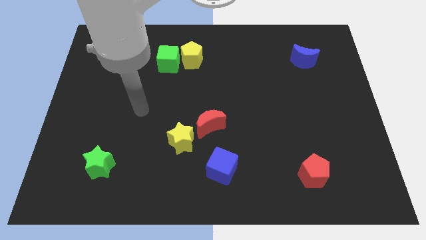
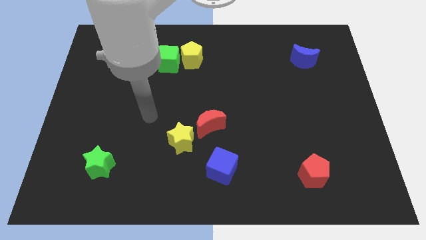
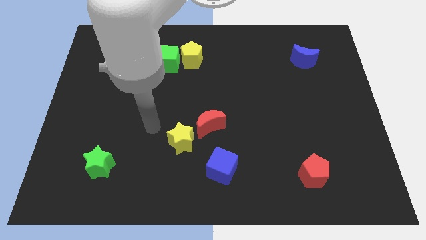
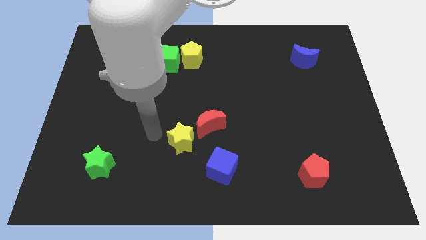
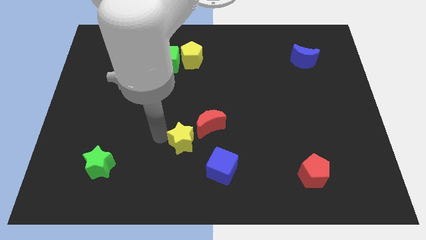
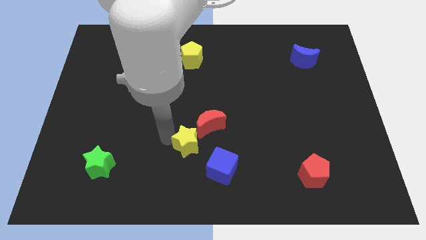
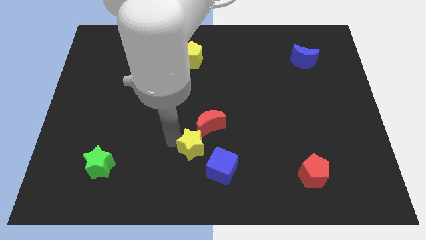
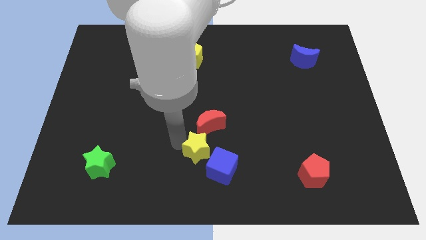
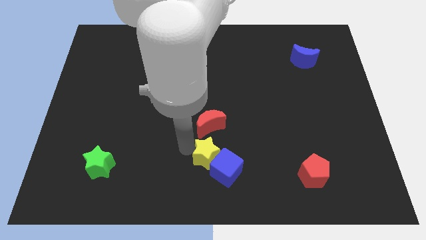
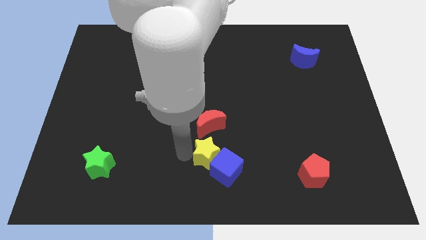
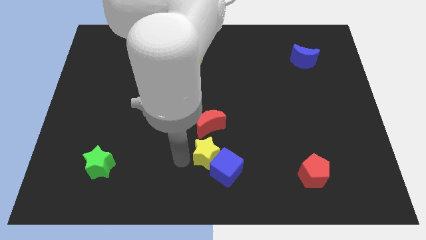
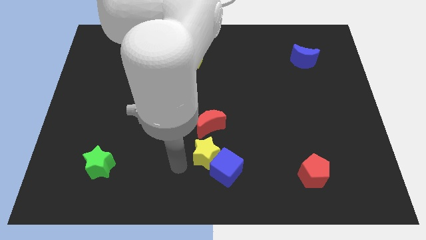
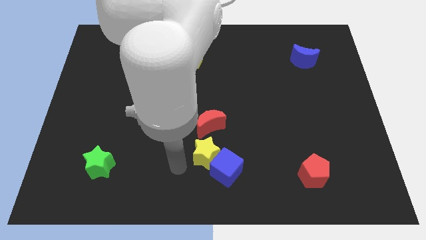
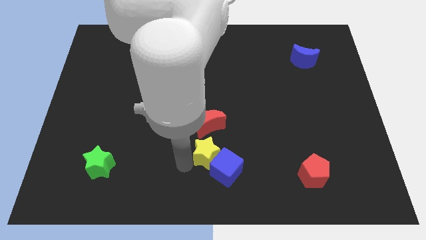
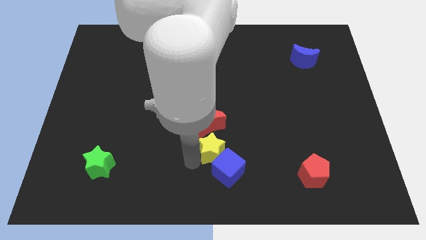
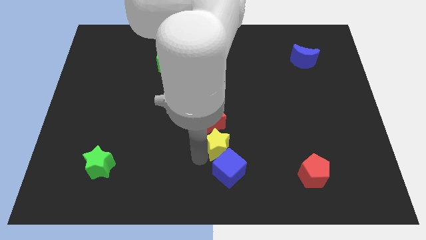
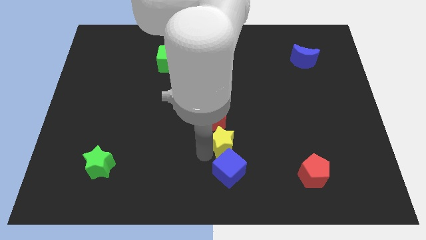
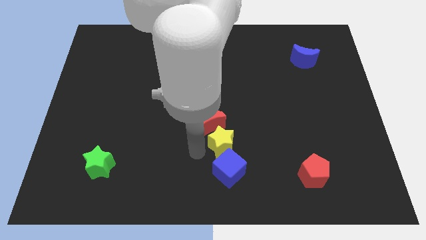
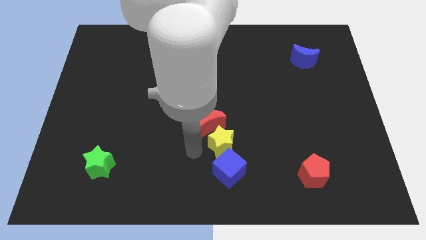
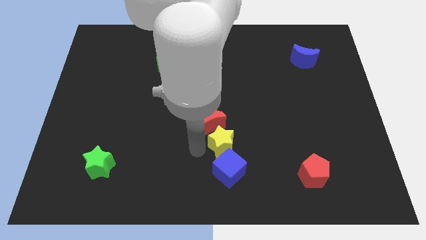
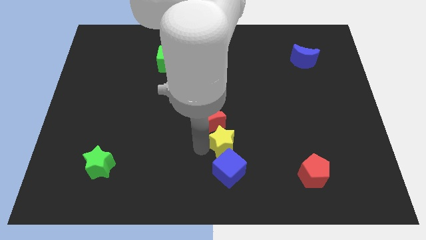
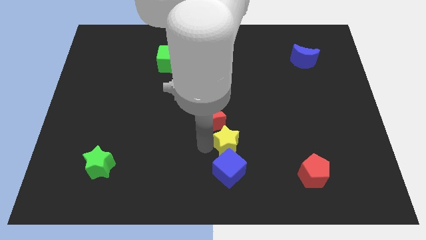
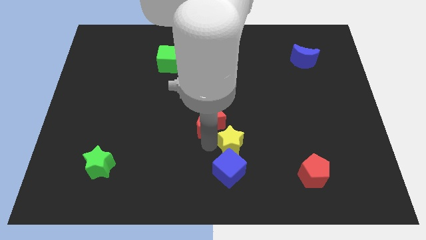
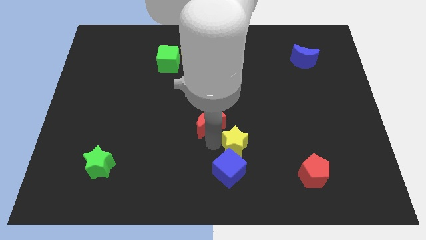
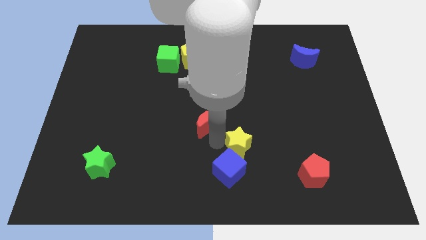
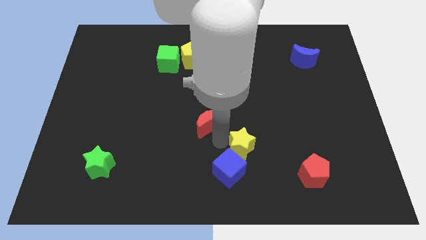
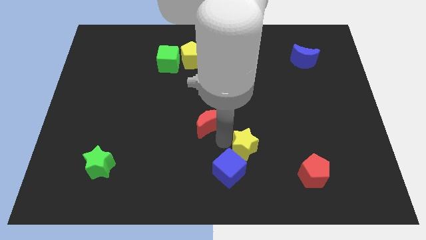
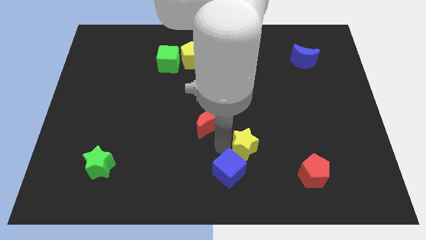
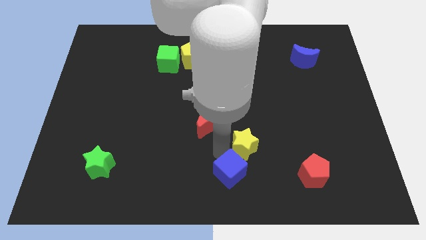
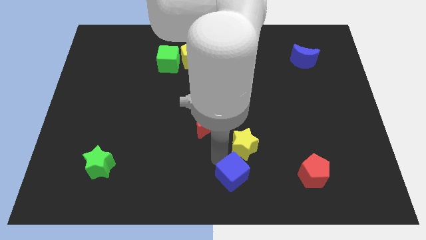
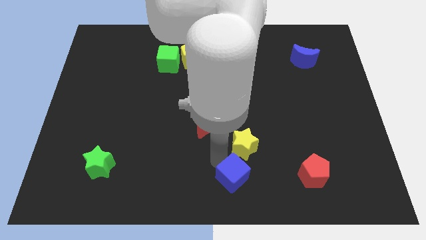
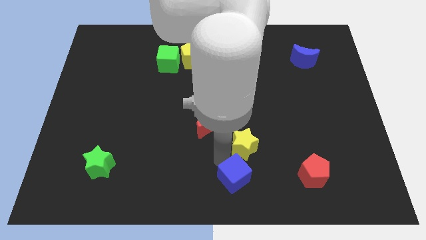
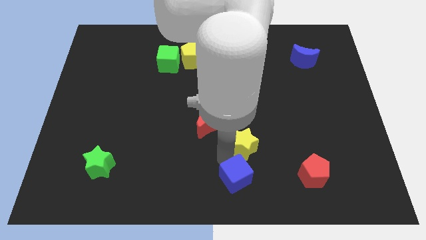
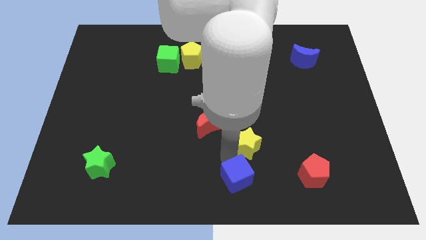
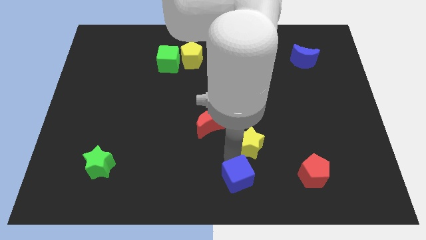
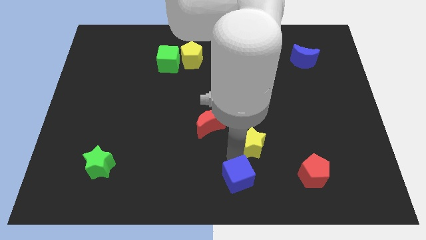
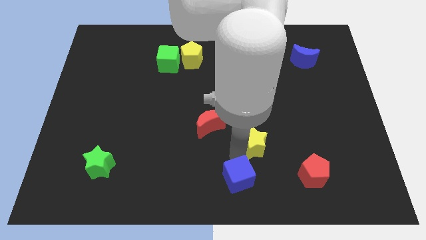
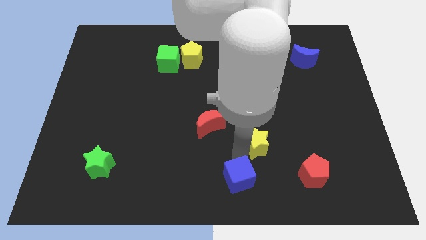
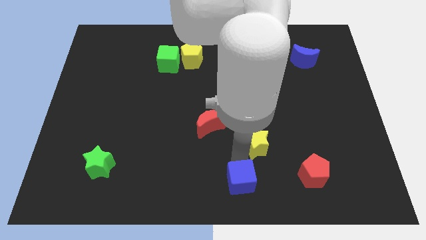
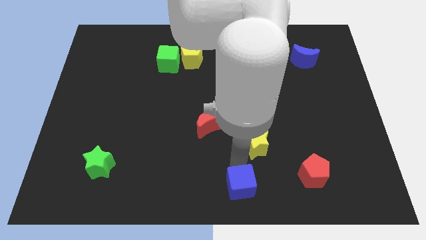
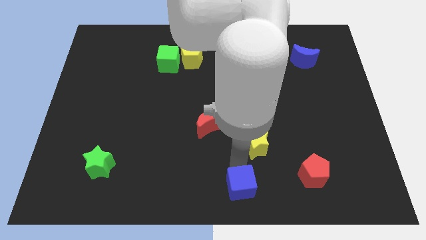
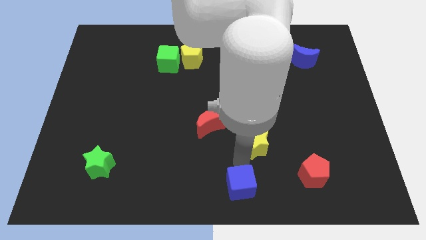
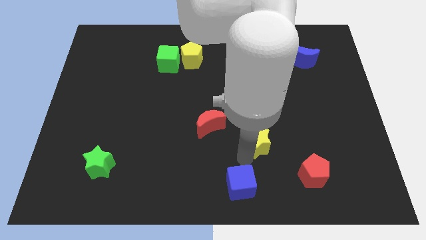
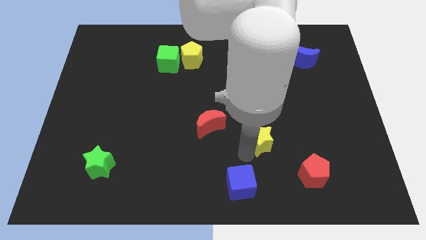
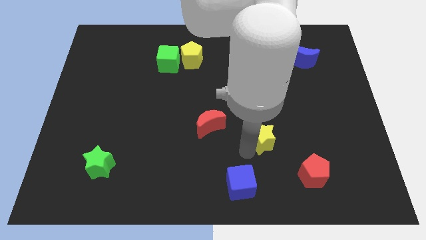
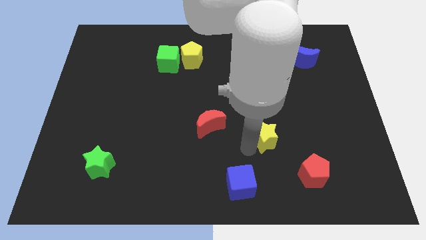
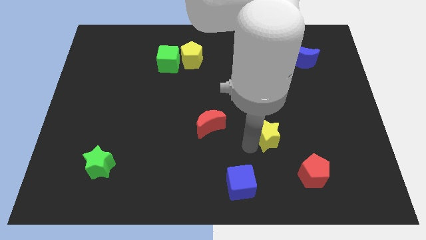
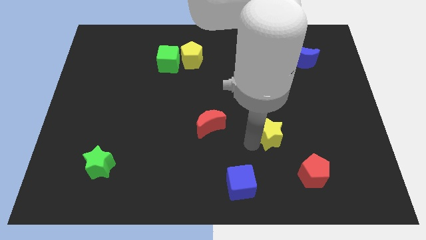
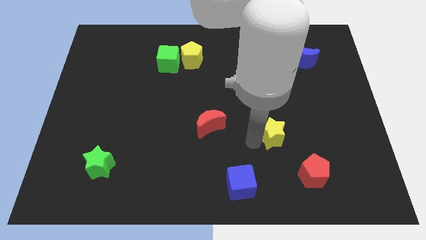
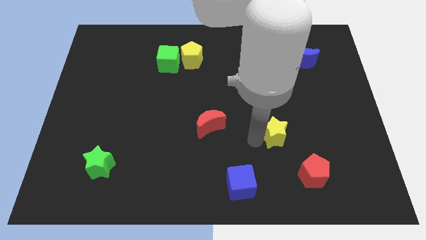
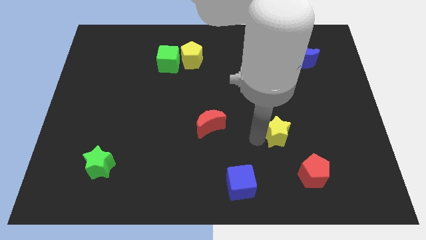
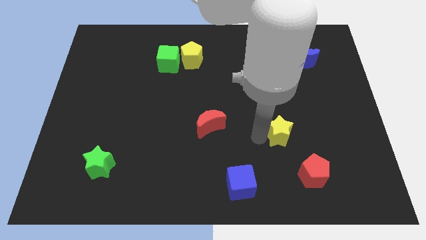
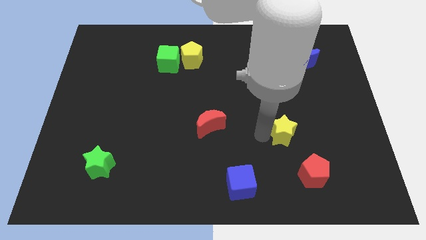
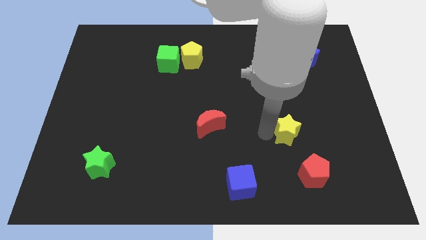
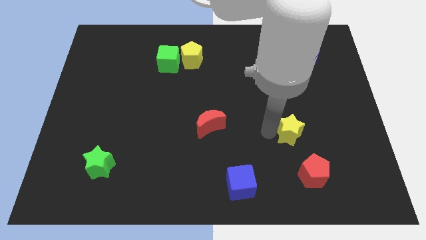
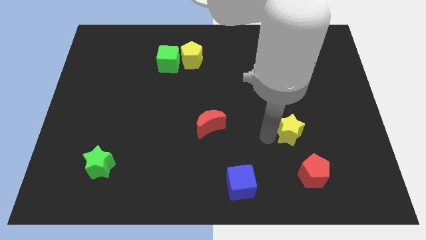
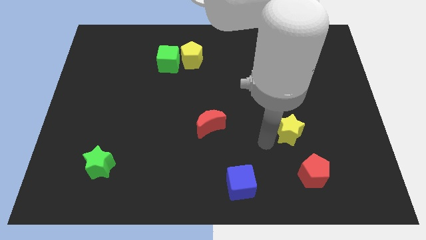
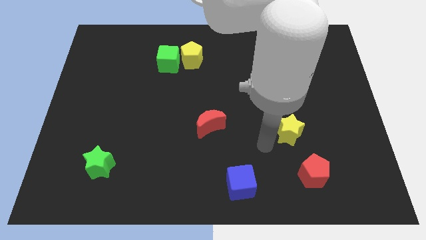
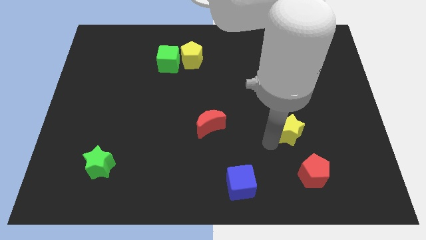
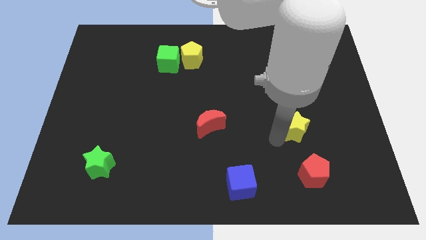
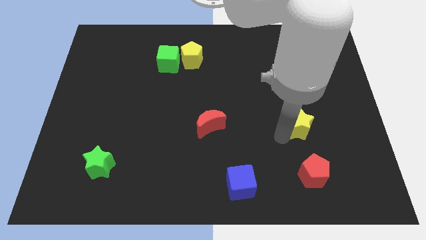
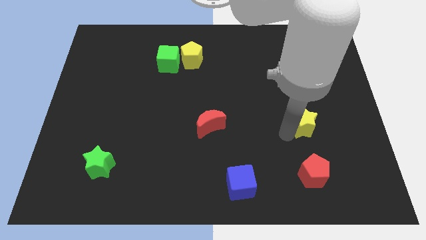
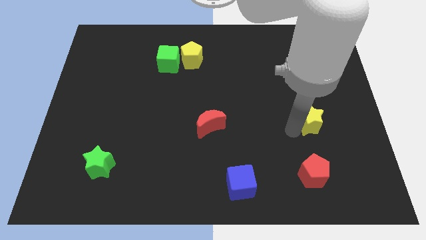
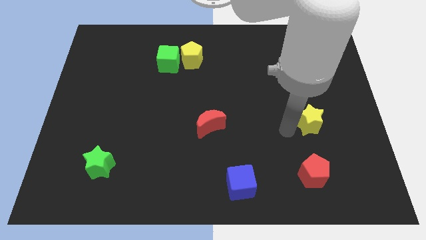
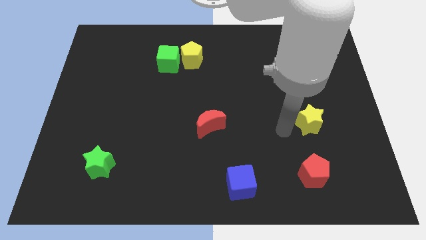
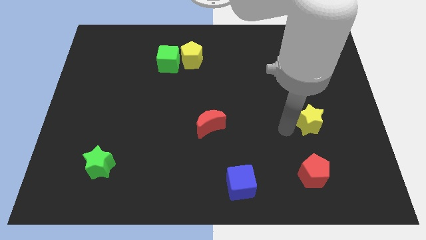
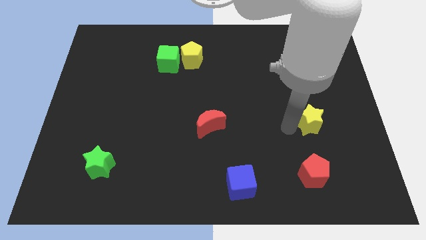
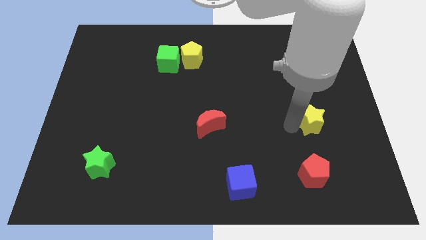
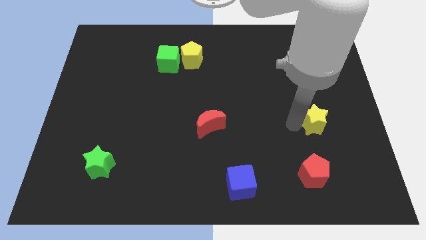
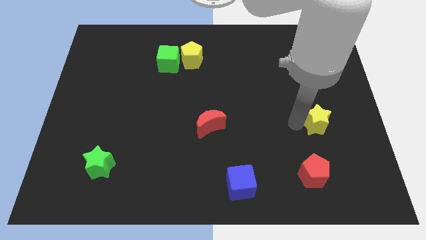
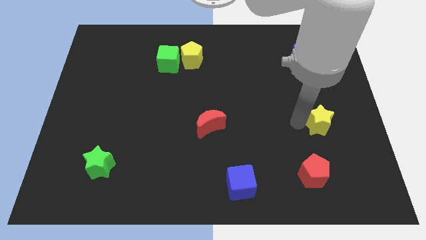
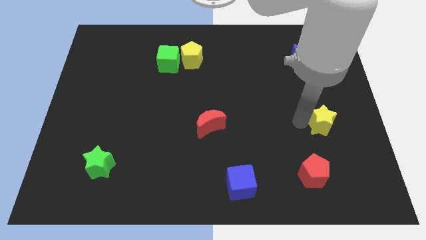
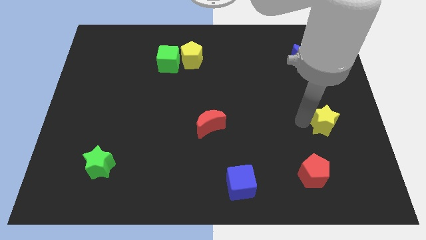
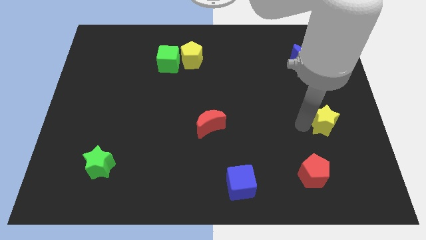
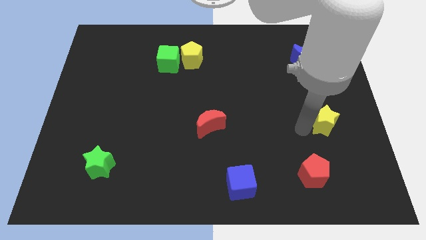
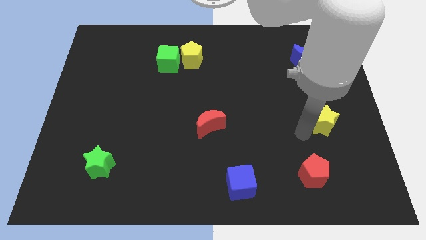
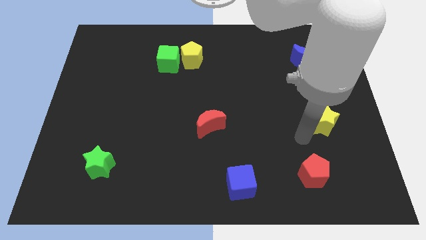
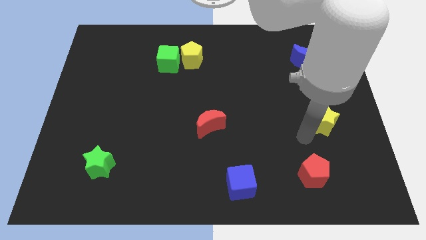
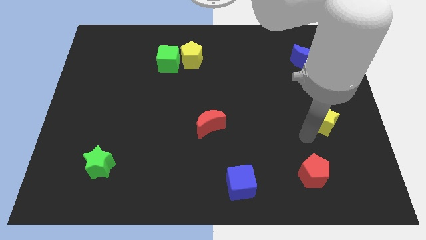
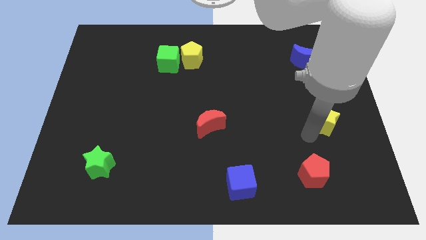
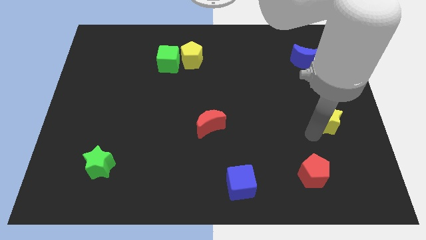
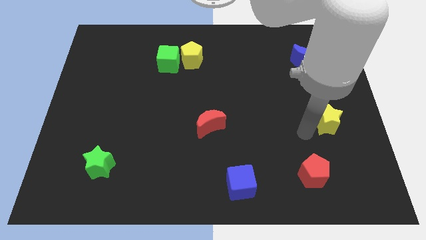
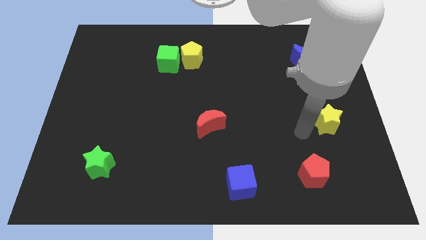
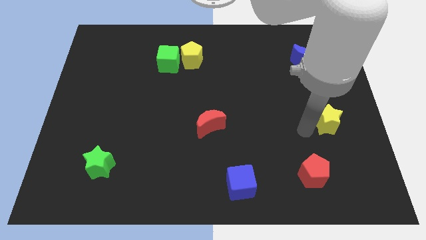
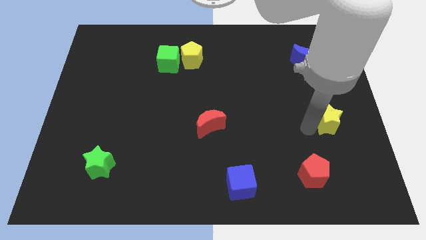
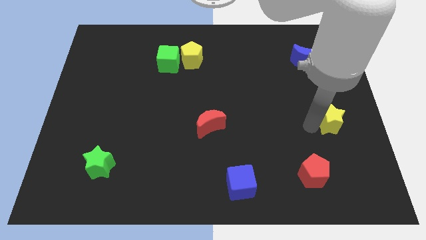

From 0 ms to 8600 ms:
push the yellow star to the center right

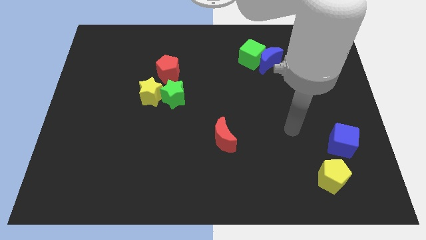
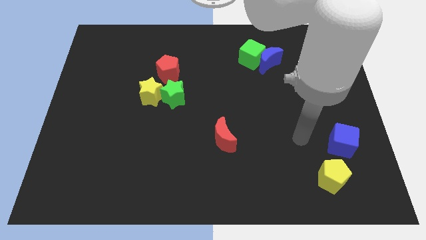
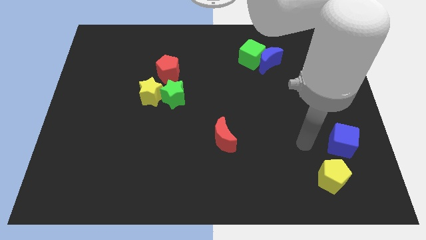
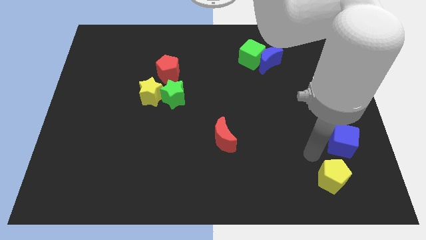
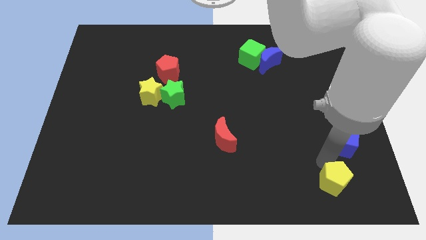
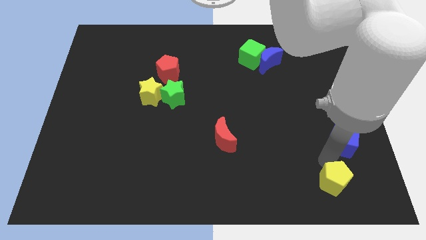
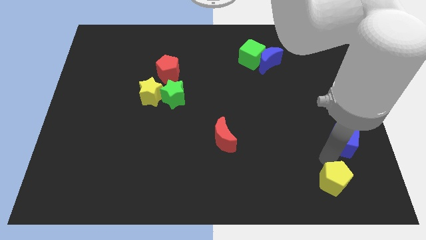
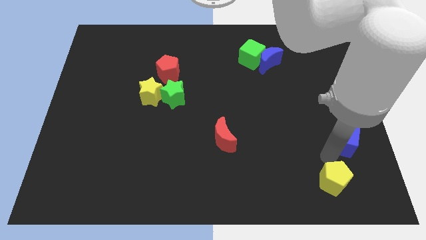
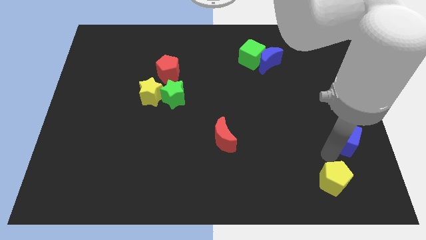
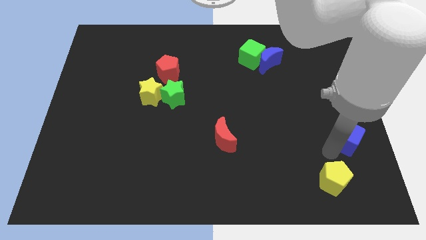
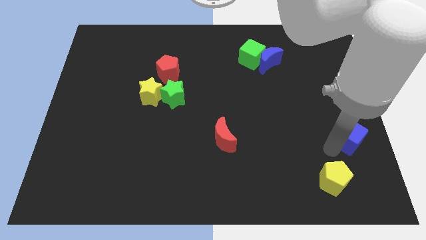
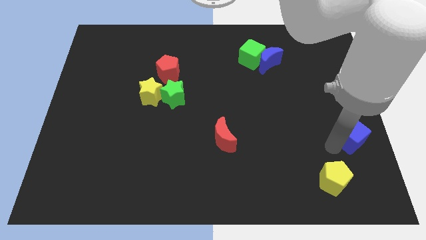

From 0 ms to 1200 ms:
move the blue cube to the right side of the board
